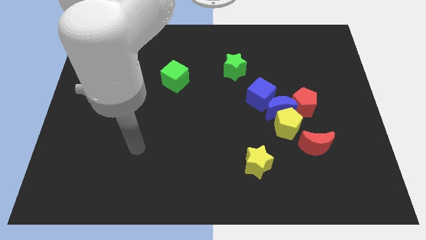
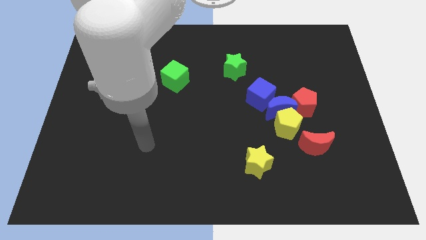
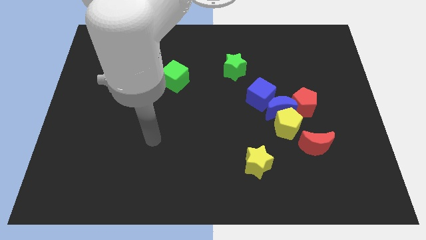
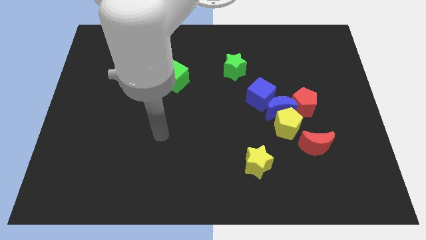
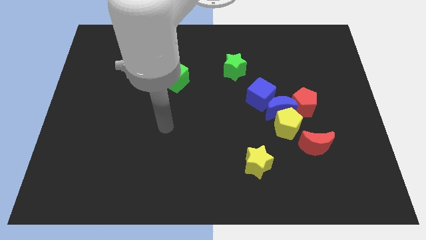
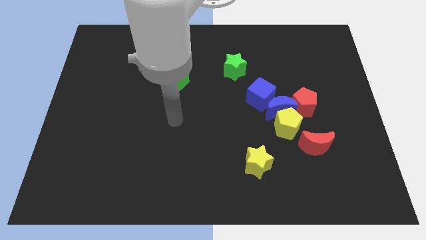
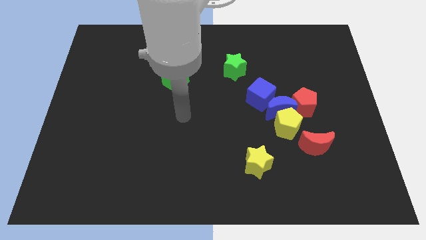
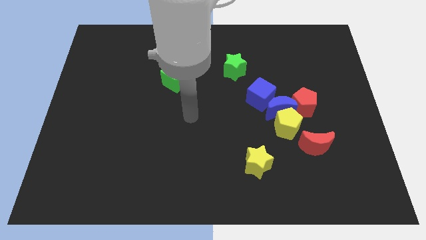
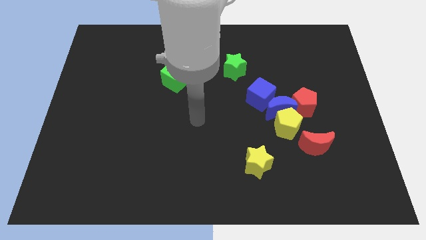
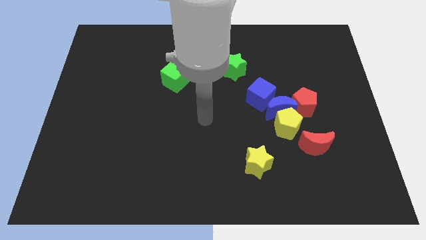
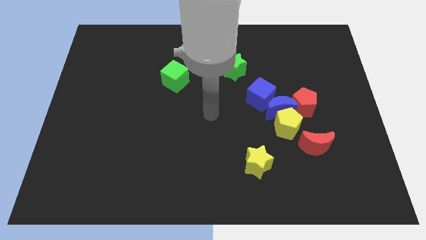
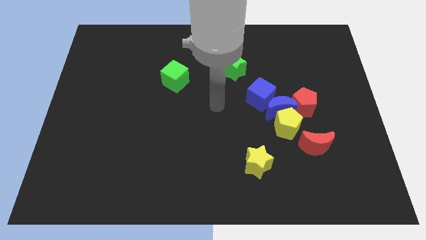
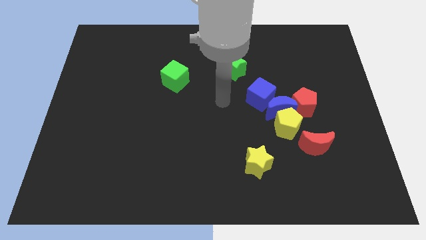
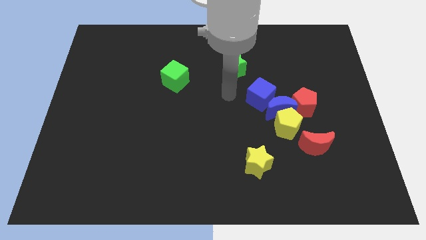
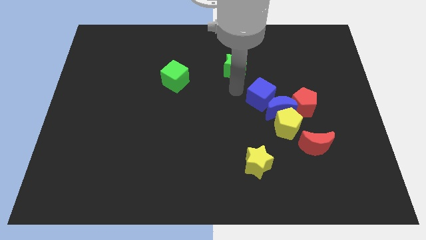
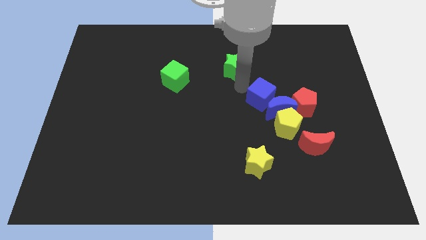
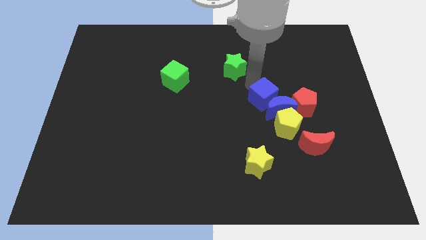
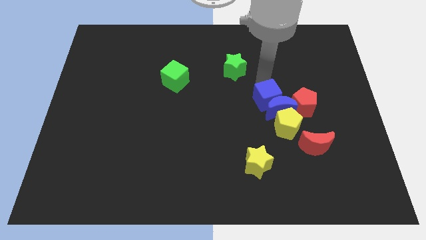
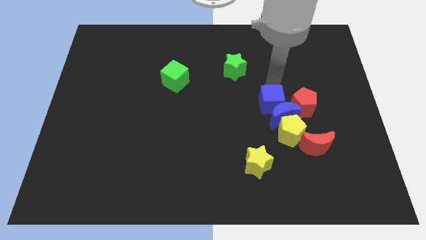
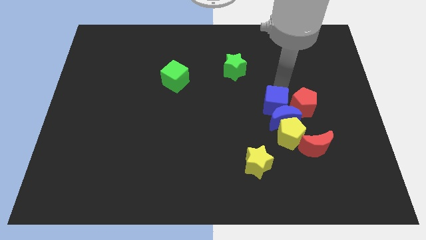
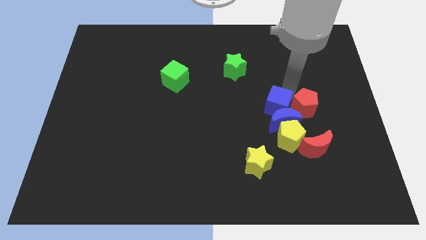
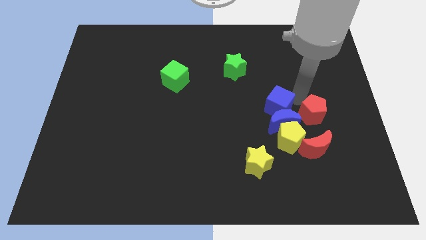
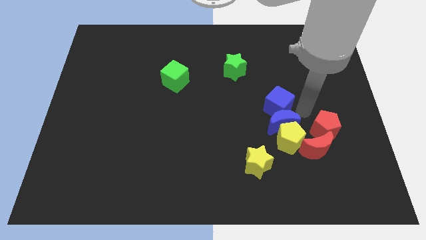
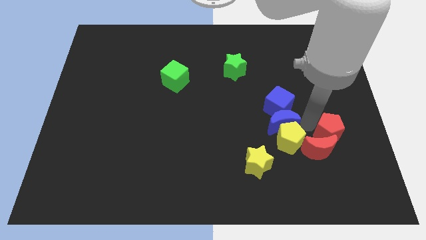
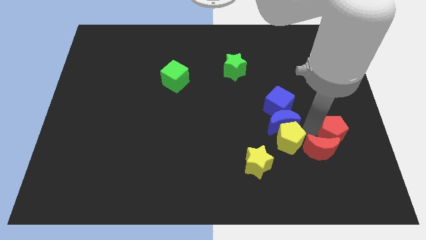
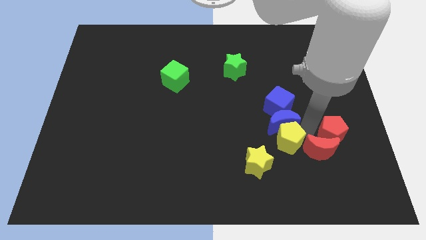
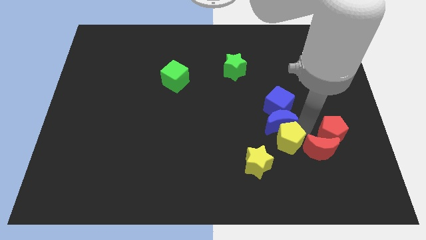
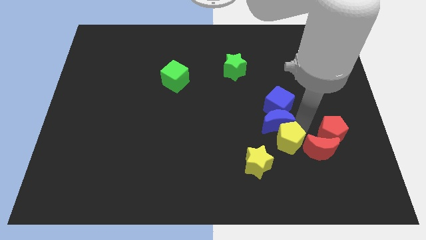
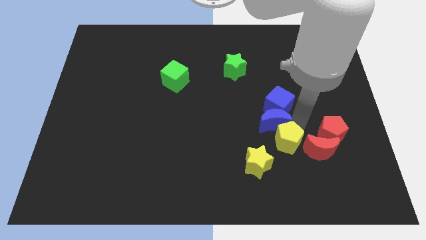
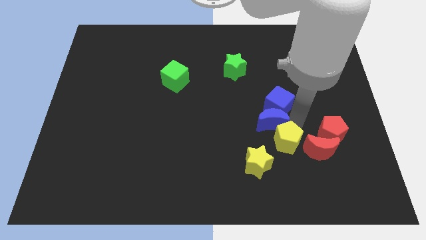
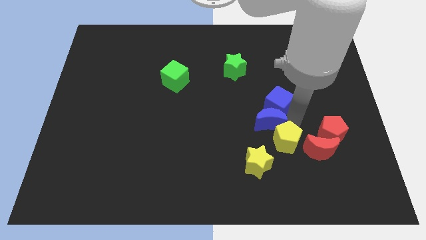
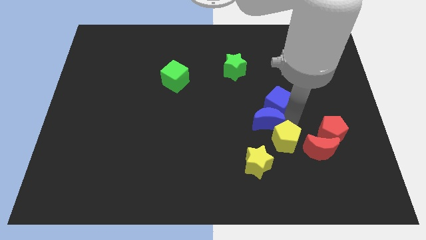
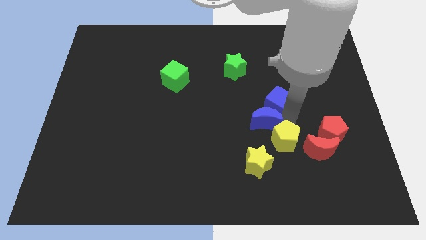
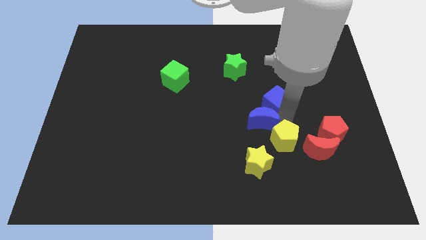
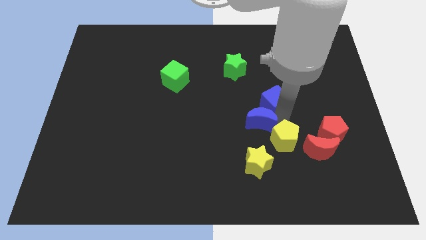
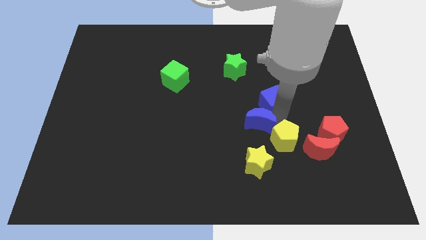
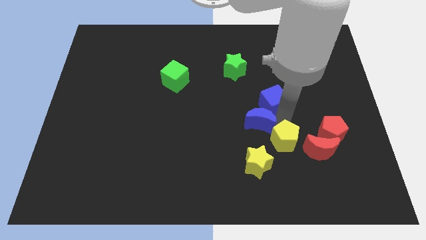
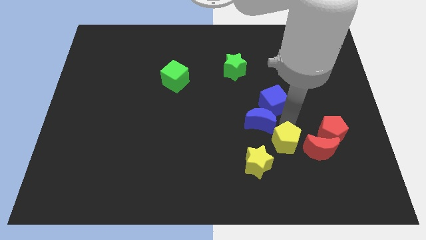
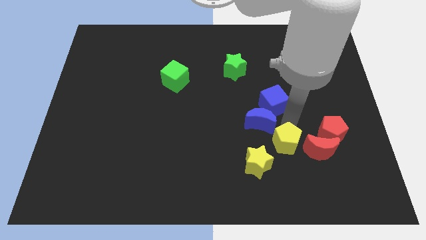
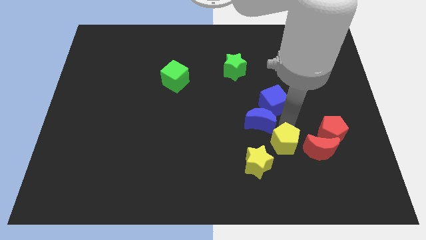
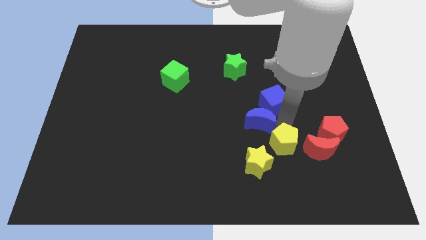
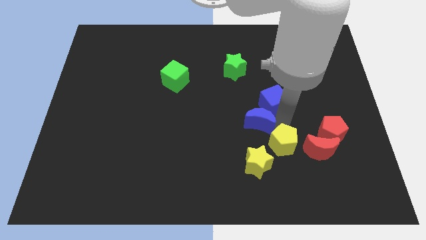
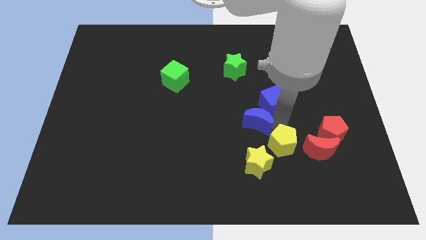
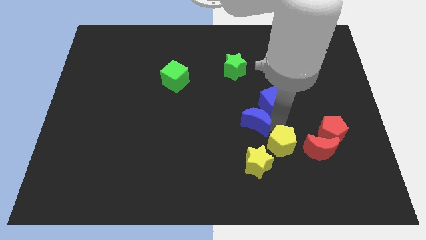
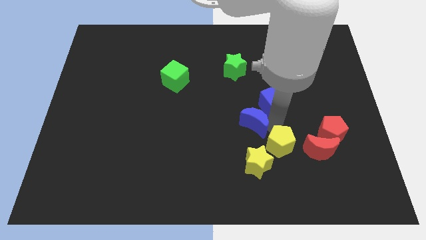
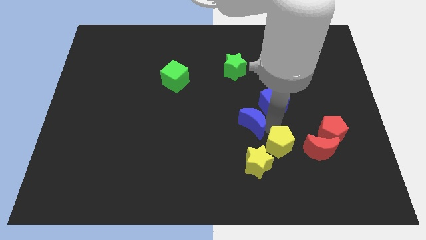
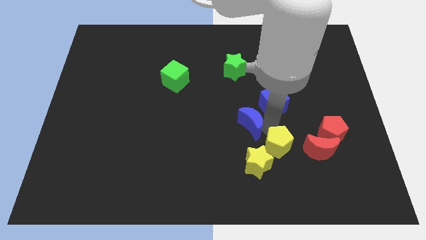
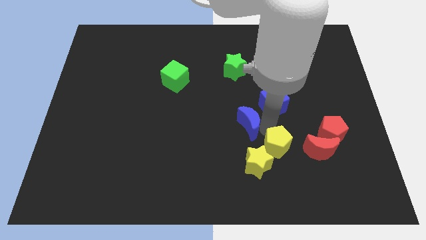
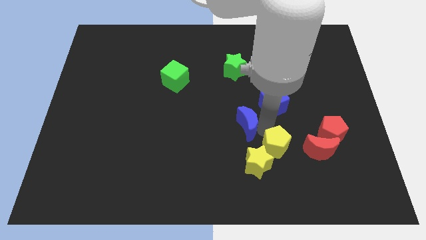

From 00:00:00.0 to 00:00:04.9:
pull the blue moon apart from the group

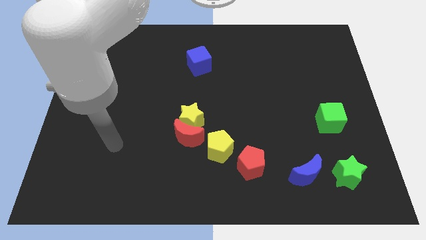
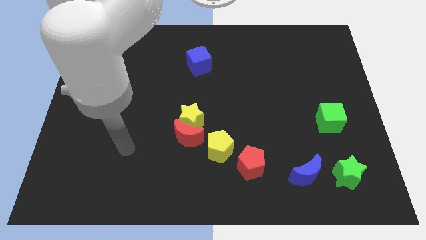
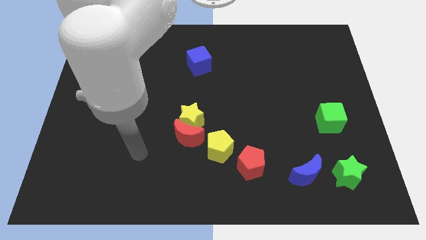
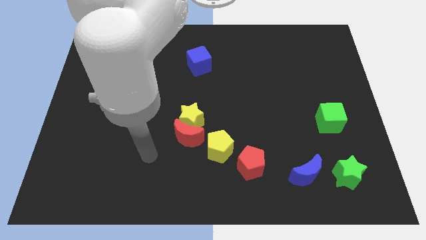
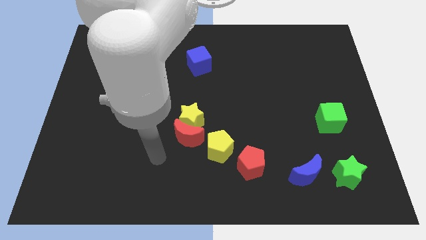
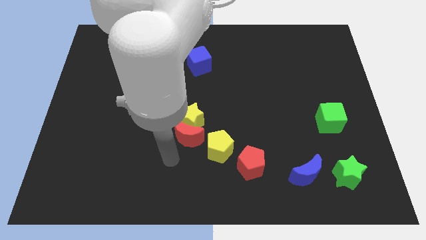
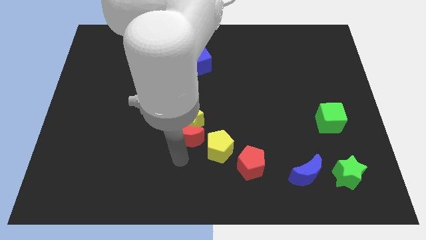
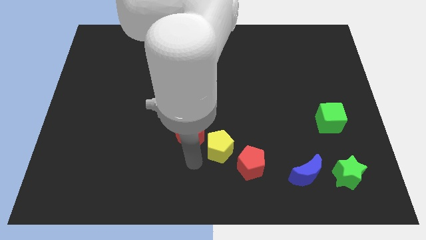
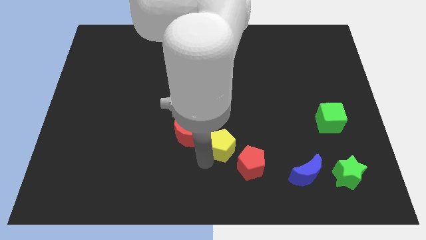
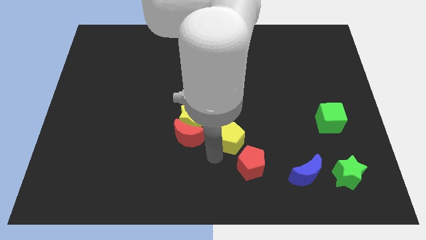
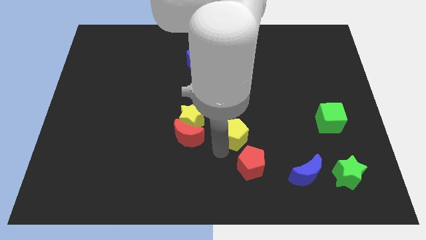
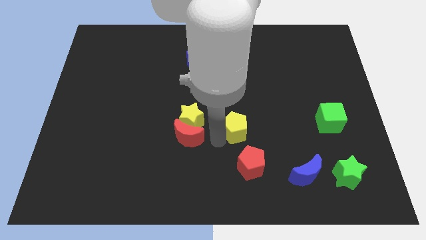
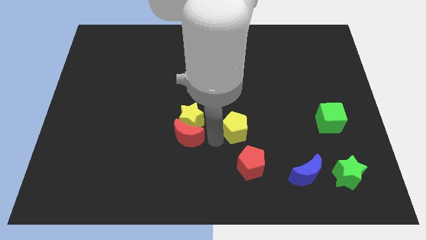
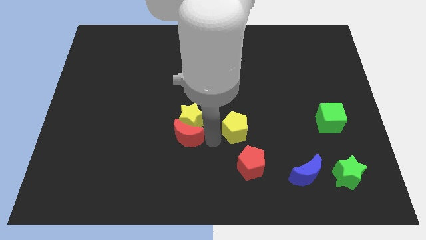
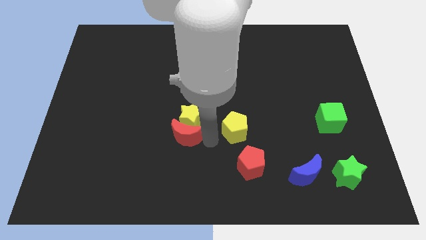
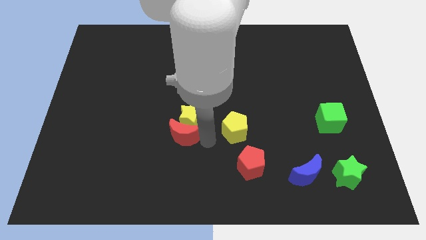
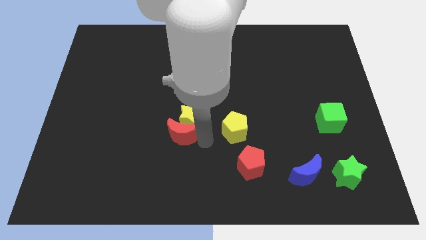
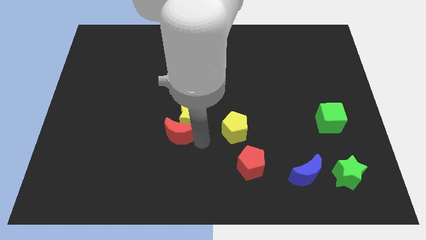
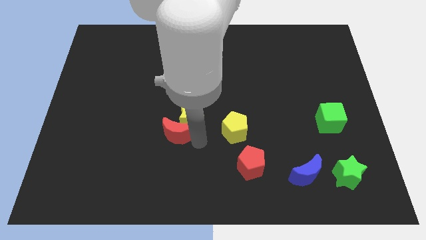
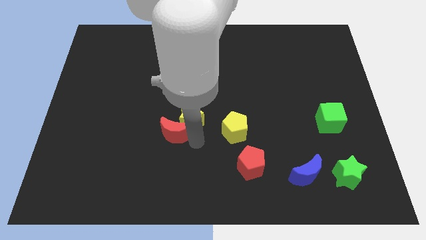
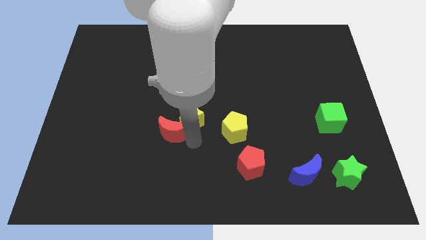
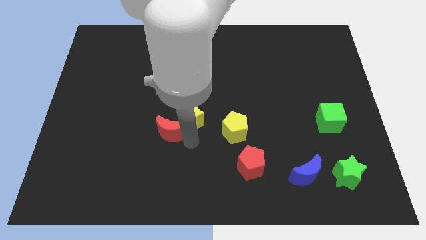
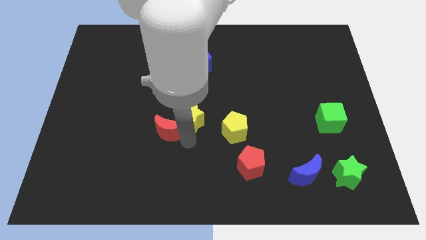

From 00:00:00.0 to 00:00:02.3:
move the red moon away from the yellow star and yellow pentagon

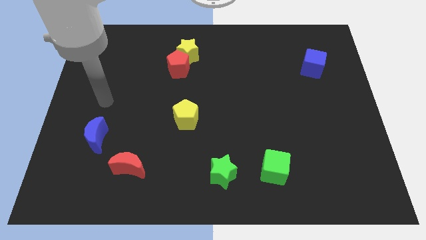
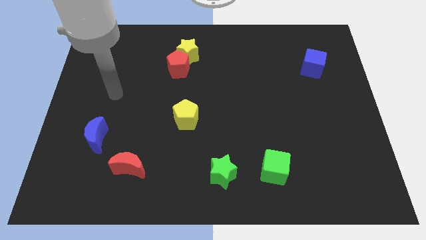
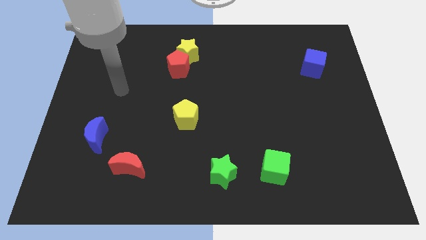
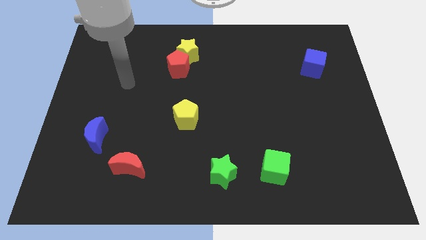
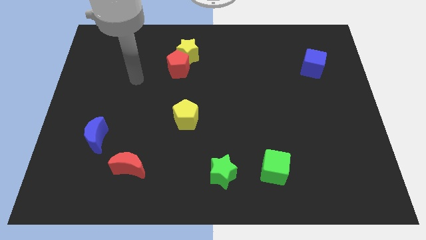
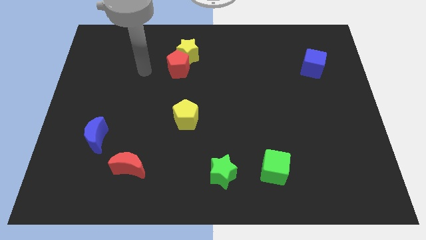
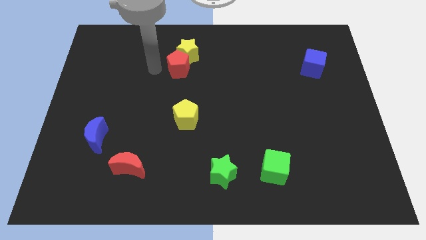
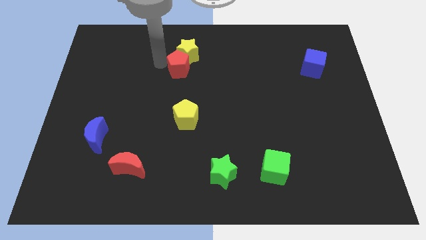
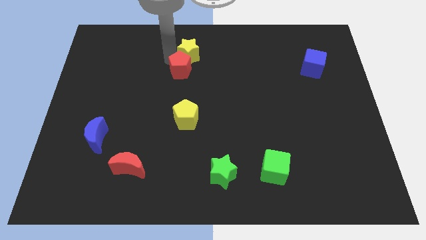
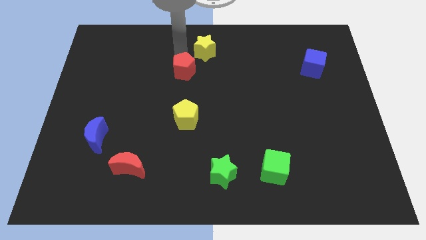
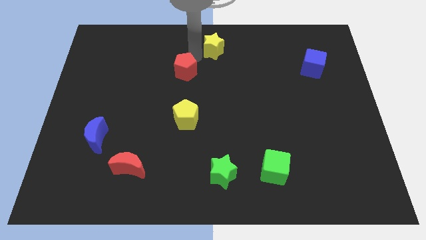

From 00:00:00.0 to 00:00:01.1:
pull the red pentagon apart from the yellow star

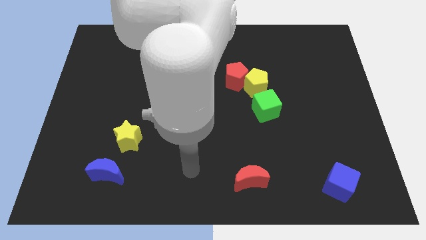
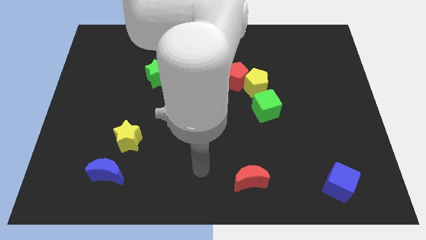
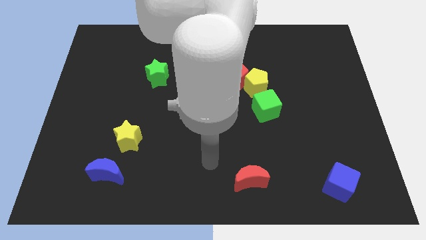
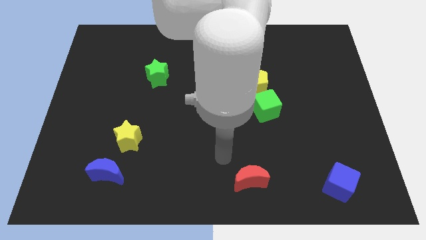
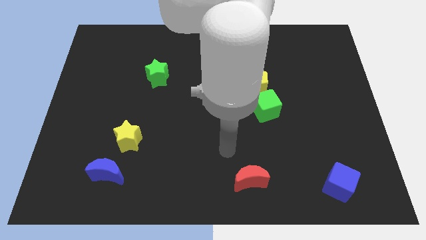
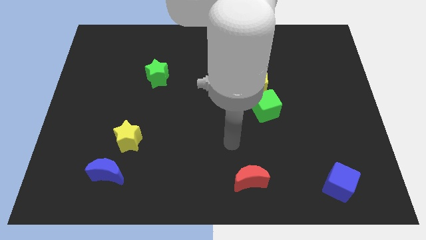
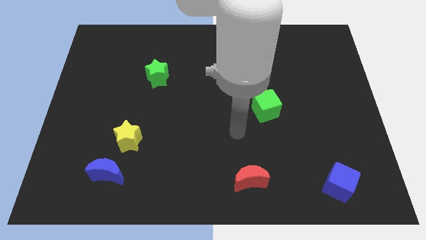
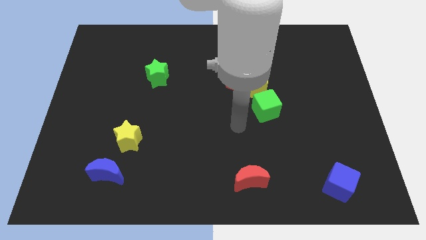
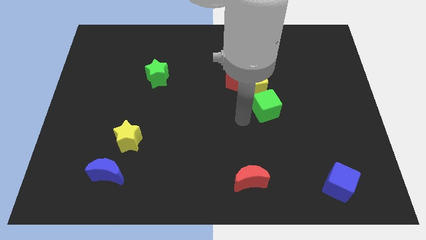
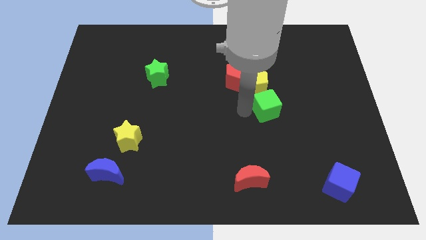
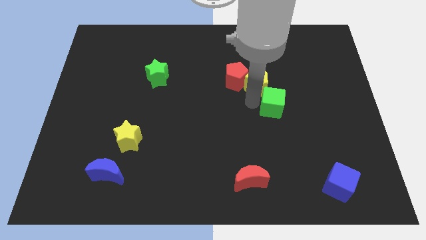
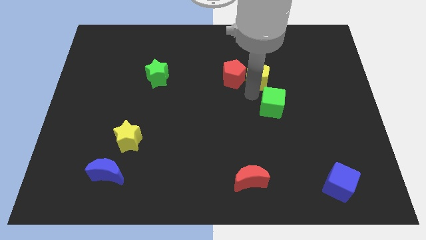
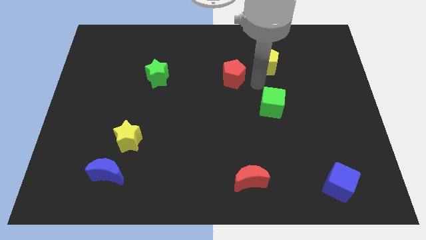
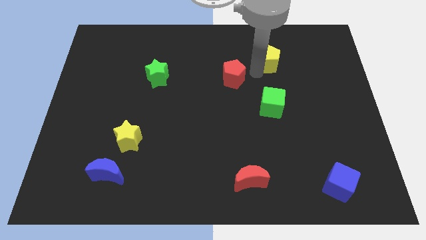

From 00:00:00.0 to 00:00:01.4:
pull the red pentagon apart from the yellow pentagon
